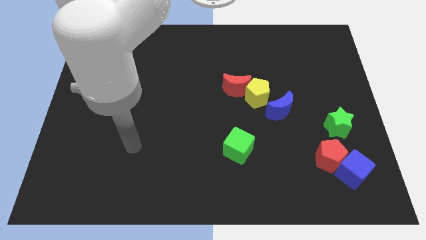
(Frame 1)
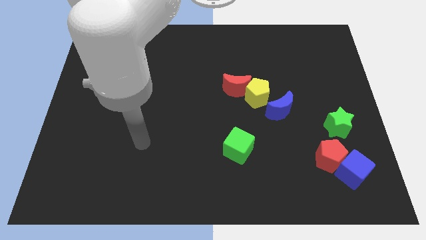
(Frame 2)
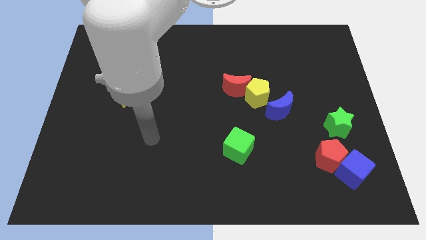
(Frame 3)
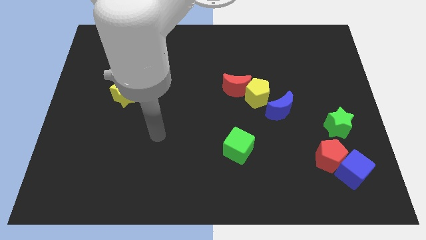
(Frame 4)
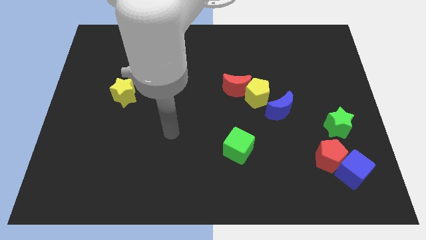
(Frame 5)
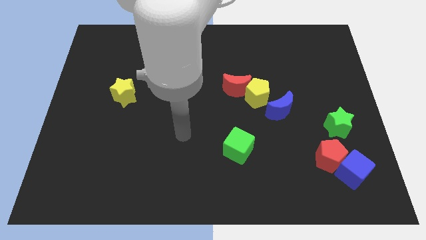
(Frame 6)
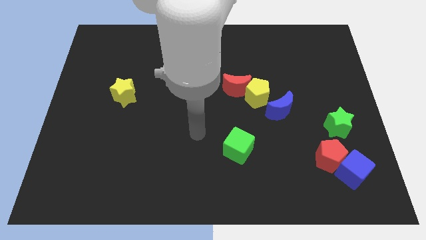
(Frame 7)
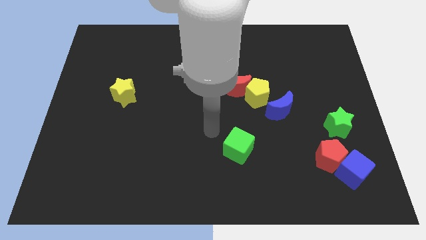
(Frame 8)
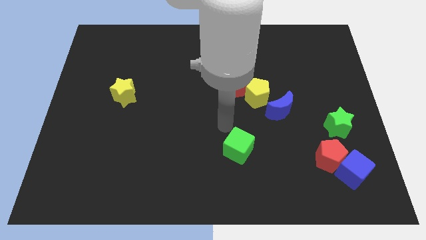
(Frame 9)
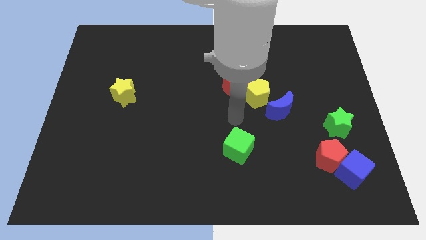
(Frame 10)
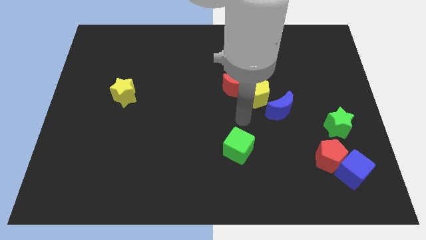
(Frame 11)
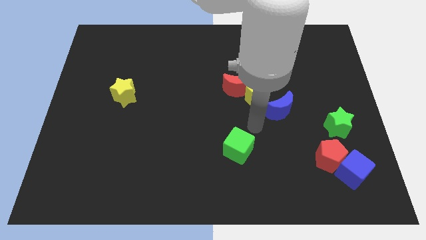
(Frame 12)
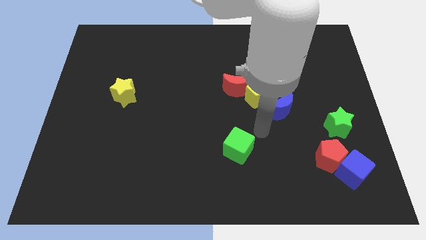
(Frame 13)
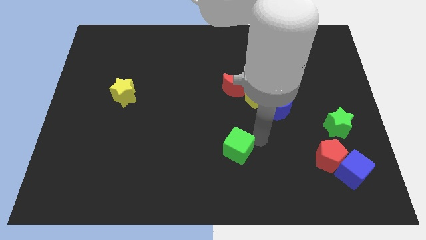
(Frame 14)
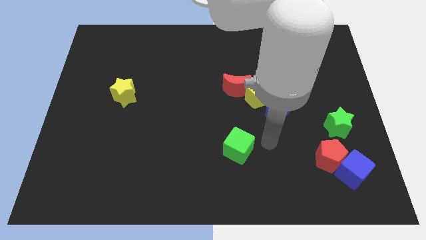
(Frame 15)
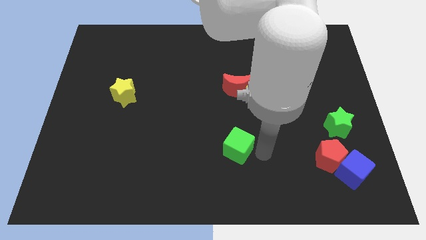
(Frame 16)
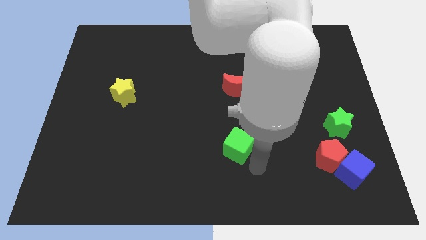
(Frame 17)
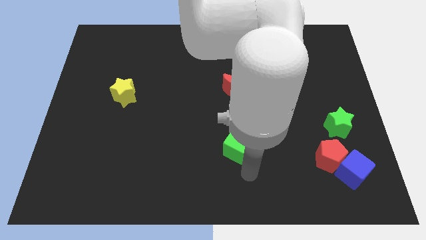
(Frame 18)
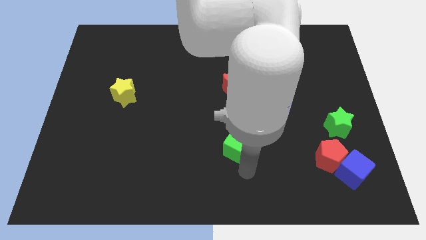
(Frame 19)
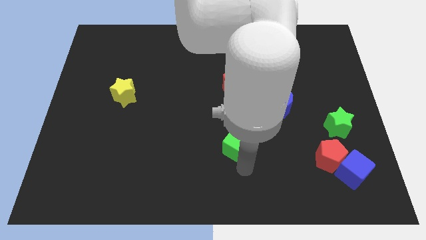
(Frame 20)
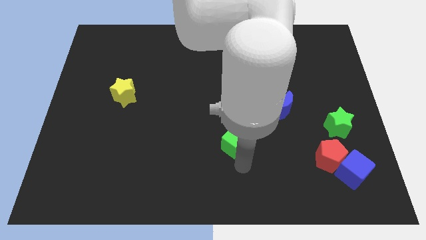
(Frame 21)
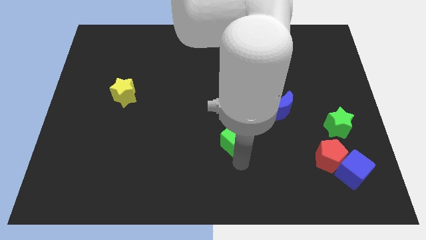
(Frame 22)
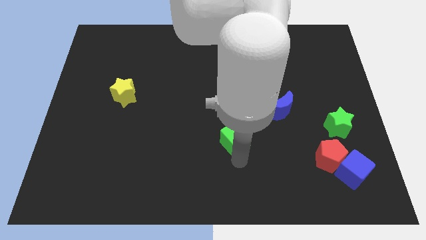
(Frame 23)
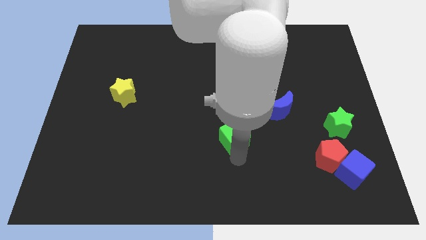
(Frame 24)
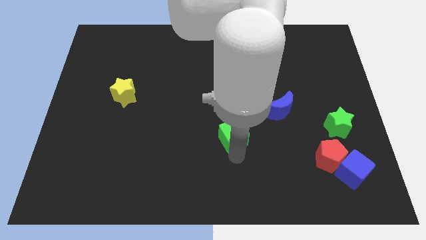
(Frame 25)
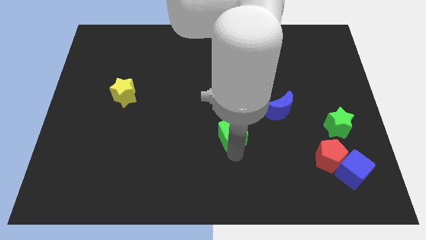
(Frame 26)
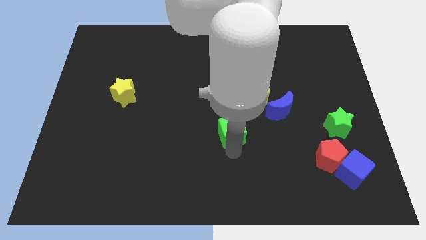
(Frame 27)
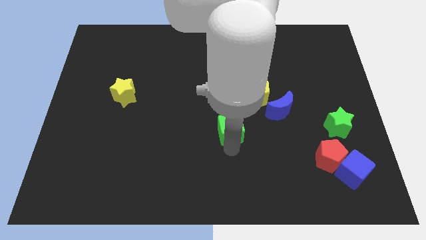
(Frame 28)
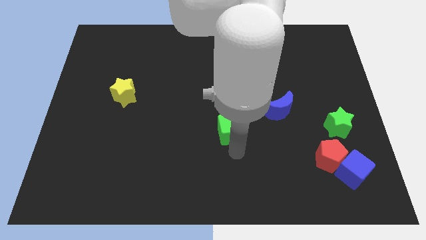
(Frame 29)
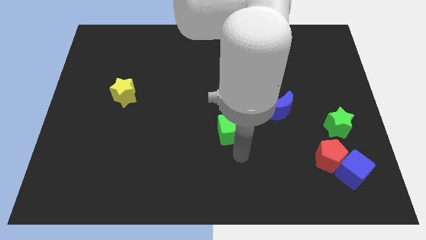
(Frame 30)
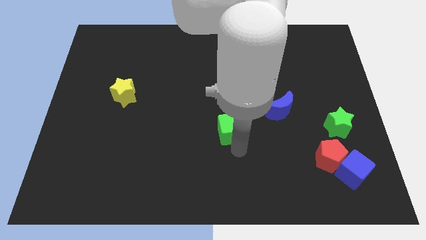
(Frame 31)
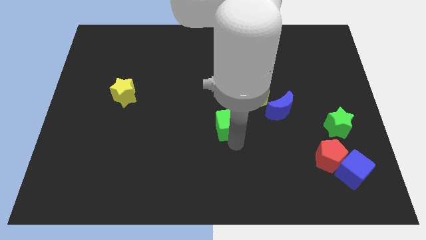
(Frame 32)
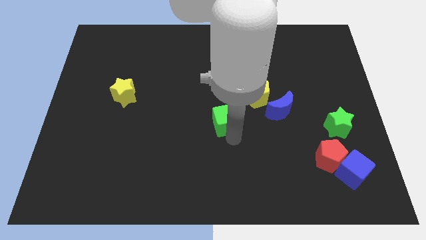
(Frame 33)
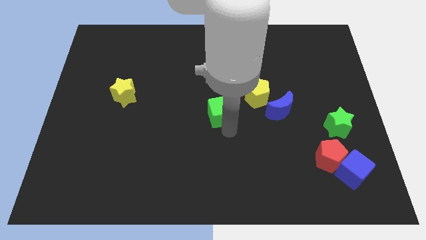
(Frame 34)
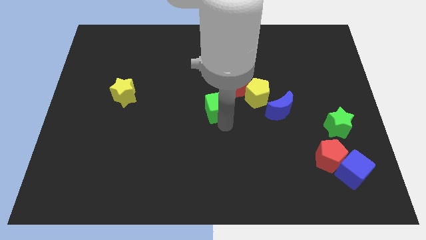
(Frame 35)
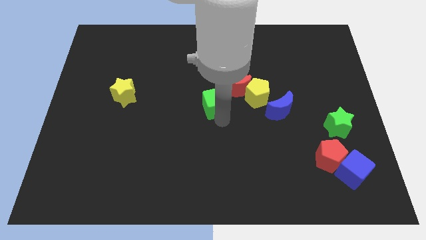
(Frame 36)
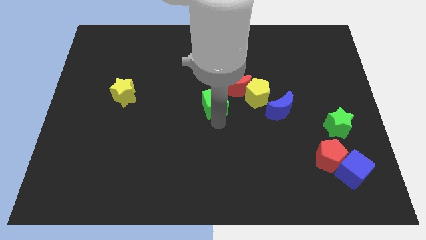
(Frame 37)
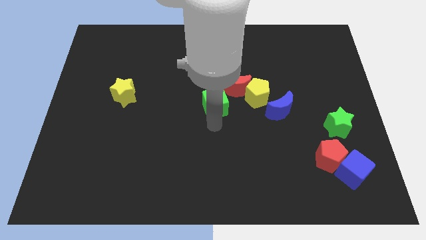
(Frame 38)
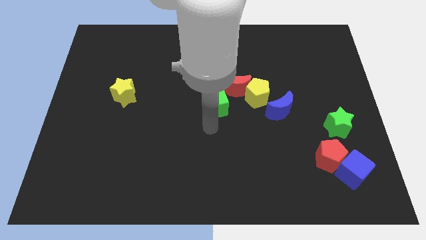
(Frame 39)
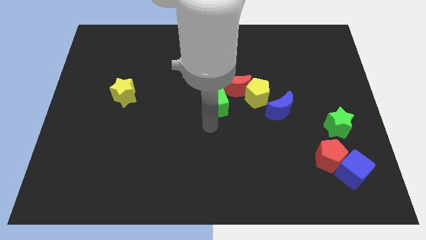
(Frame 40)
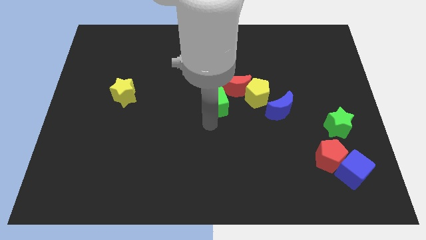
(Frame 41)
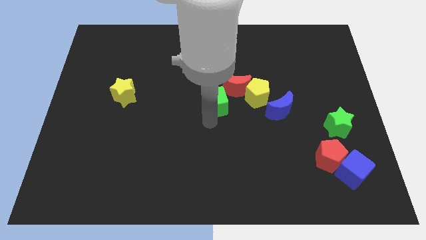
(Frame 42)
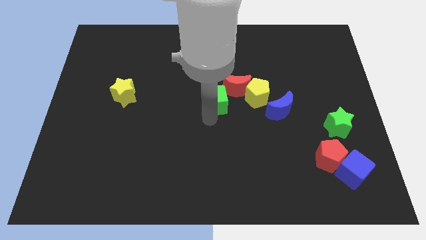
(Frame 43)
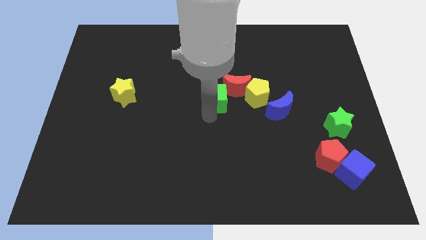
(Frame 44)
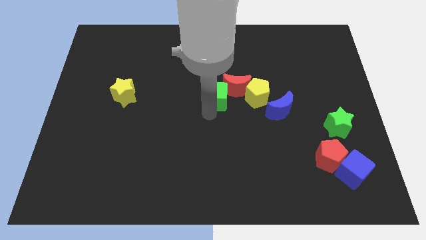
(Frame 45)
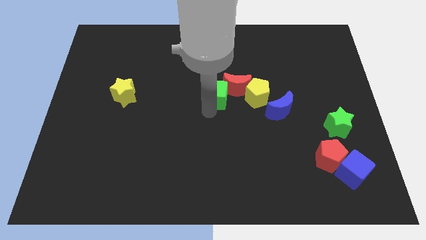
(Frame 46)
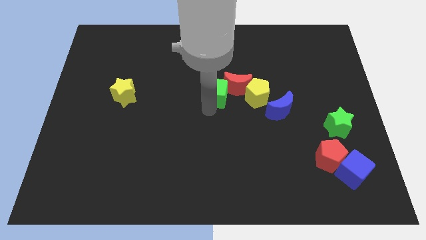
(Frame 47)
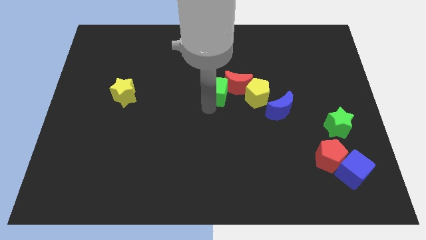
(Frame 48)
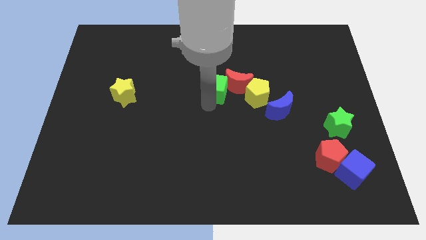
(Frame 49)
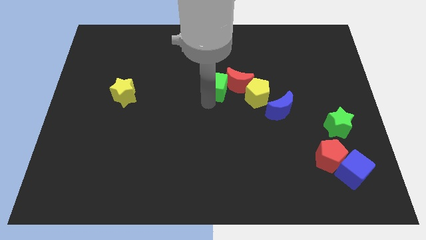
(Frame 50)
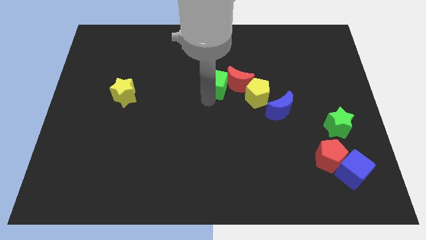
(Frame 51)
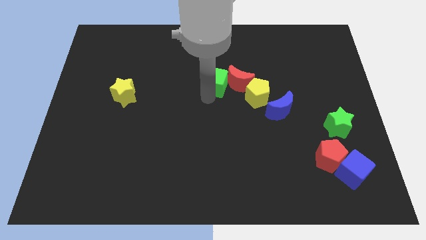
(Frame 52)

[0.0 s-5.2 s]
slide the green cube to the top left of the yellow pentagon

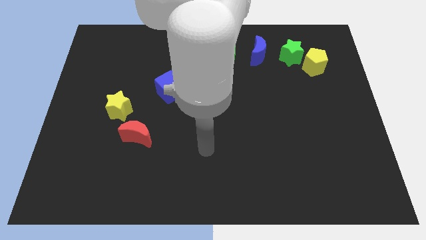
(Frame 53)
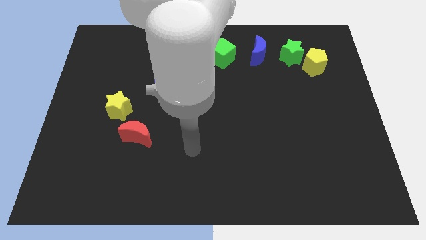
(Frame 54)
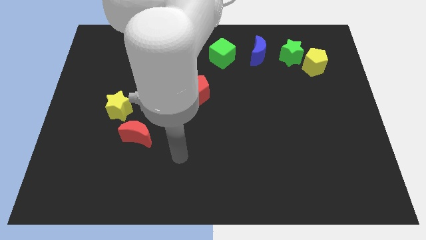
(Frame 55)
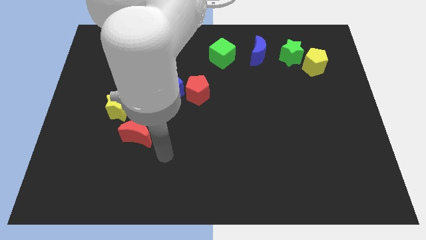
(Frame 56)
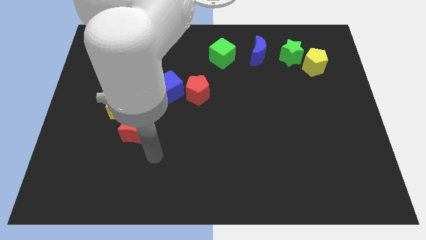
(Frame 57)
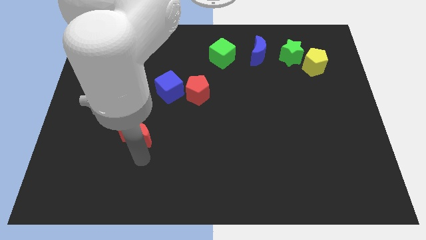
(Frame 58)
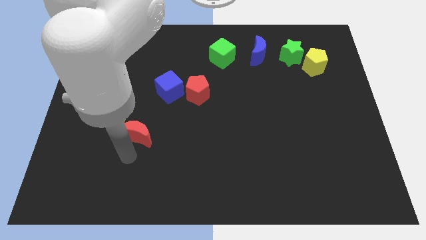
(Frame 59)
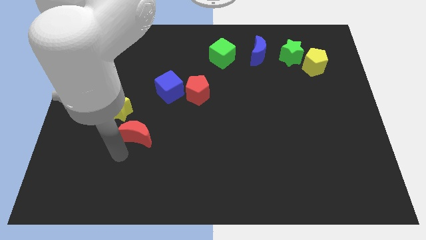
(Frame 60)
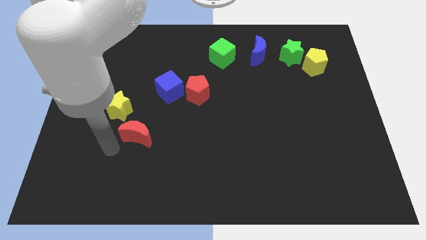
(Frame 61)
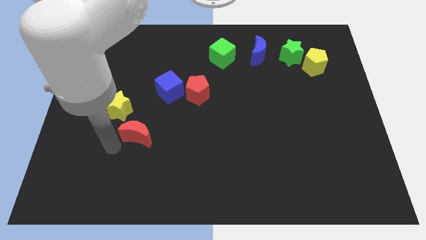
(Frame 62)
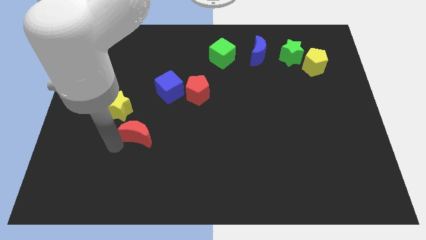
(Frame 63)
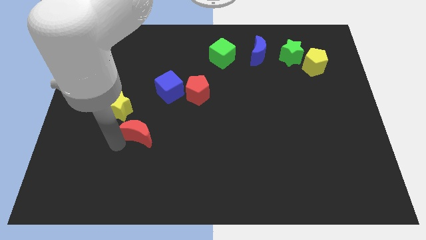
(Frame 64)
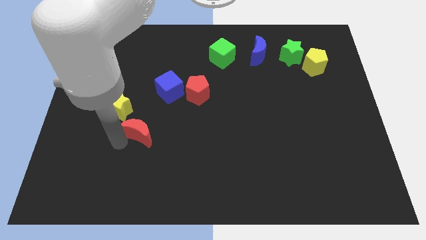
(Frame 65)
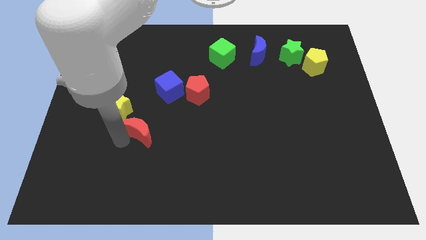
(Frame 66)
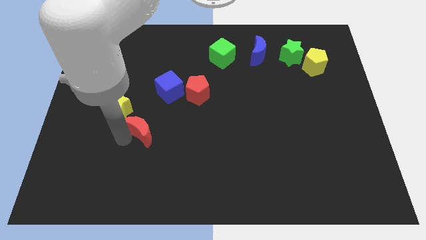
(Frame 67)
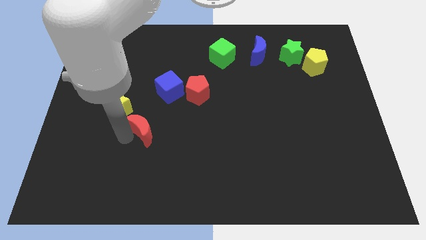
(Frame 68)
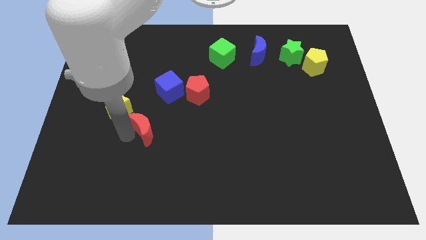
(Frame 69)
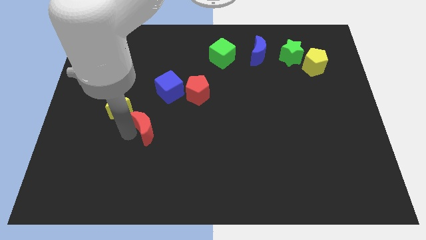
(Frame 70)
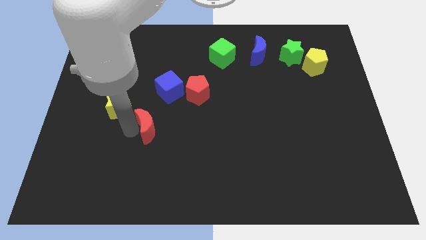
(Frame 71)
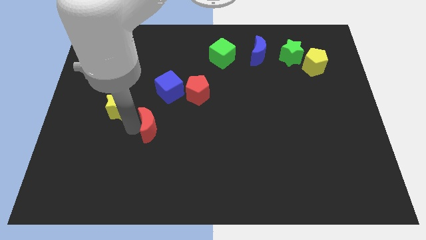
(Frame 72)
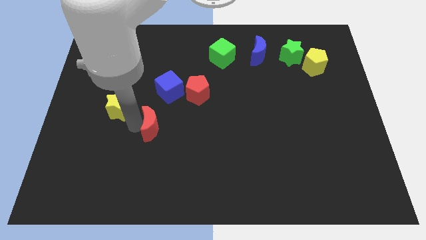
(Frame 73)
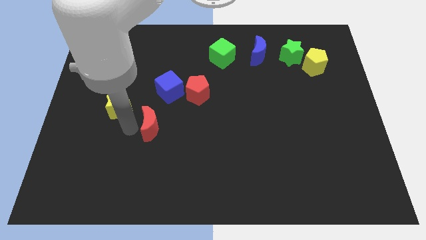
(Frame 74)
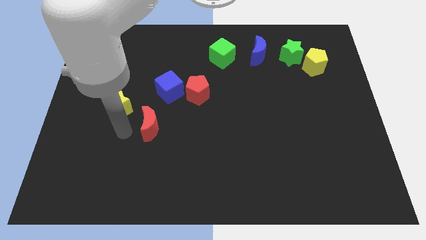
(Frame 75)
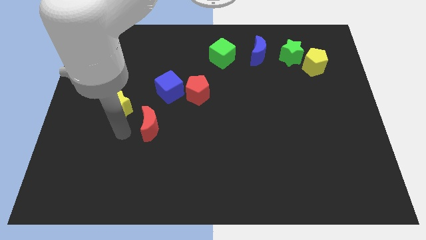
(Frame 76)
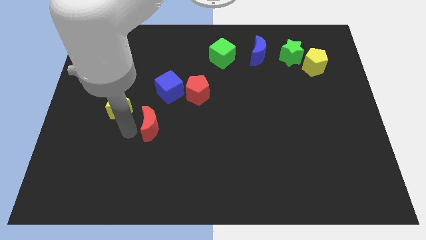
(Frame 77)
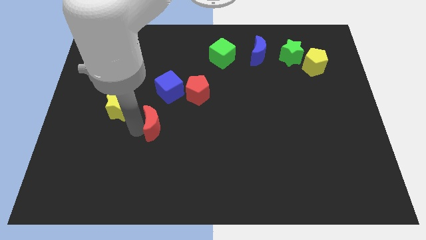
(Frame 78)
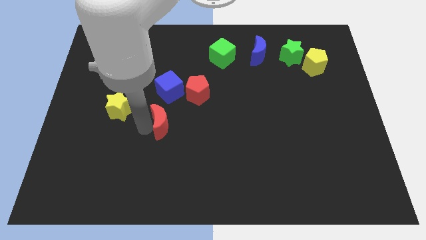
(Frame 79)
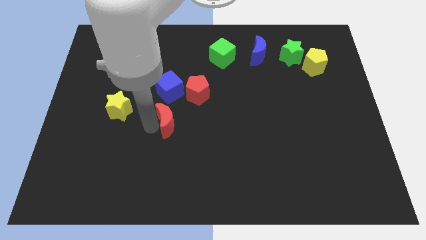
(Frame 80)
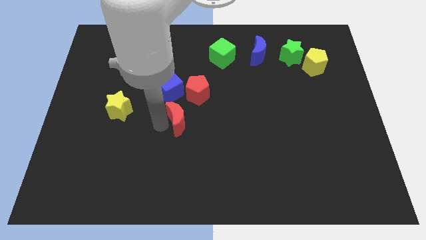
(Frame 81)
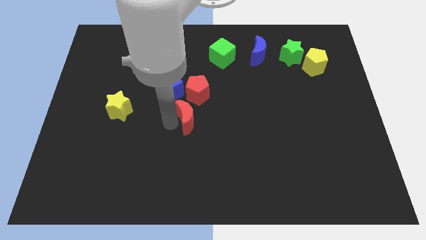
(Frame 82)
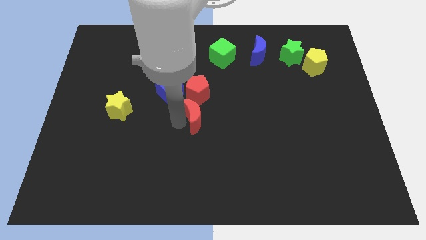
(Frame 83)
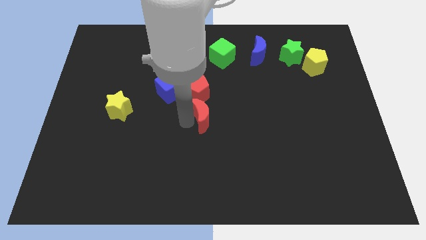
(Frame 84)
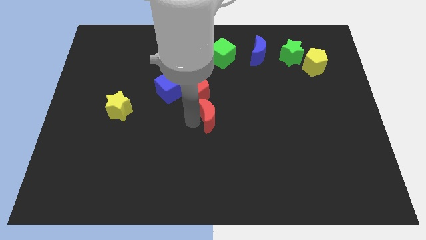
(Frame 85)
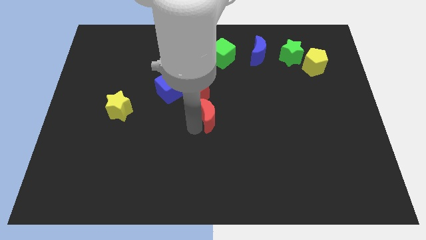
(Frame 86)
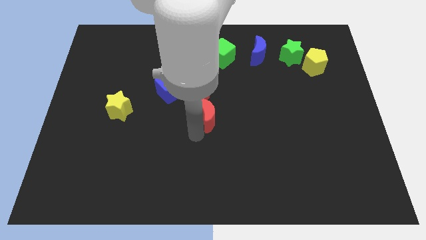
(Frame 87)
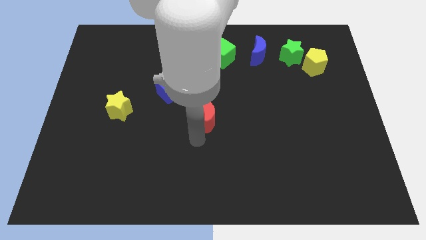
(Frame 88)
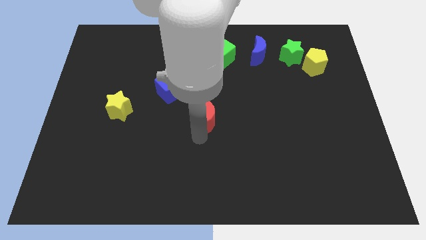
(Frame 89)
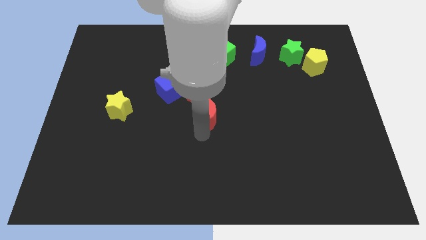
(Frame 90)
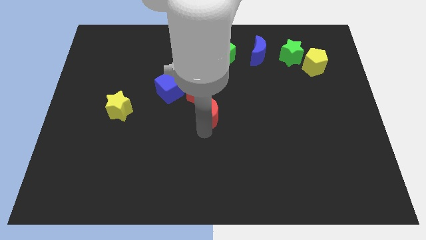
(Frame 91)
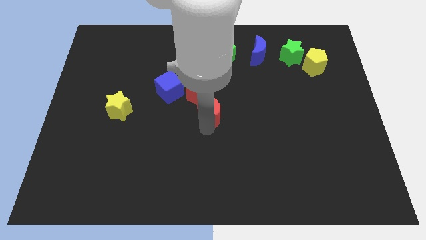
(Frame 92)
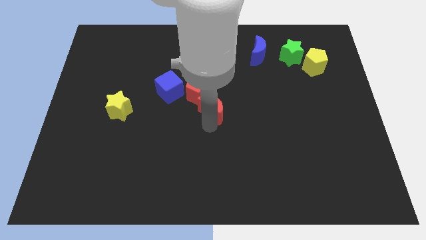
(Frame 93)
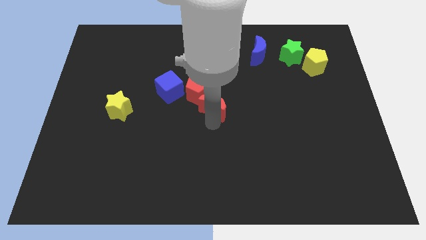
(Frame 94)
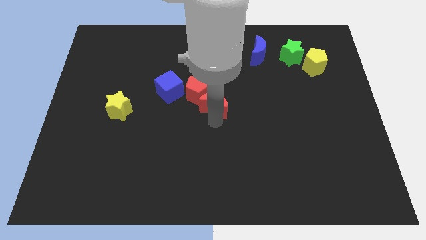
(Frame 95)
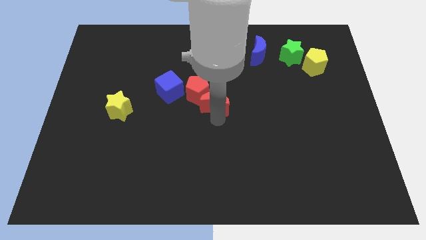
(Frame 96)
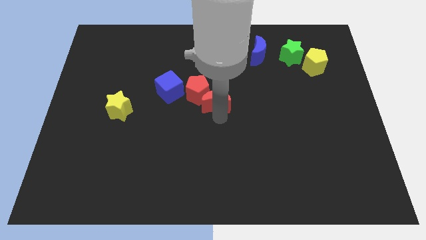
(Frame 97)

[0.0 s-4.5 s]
put the red moon to the bottom side of the green cube
